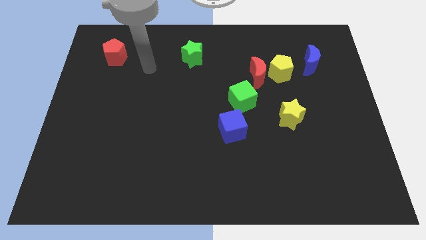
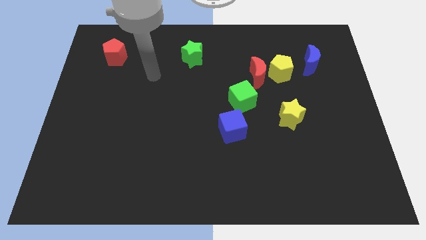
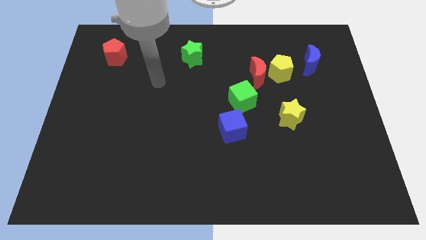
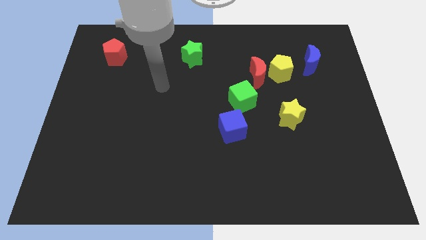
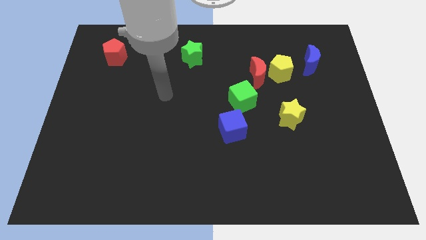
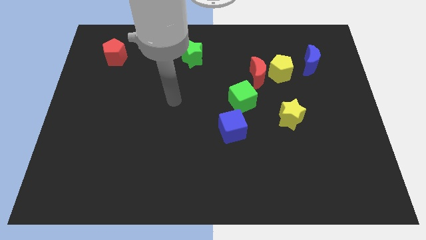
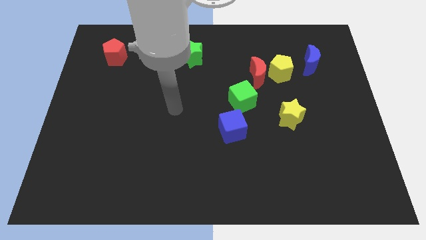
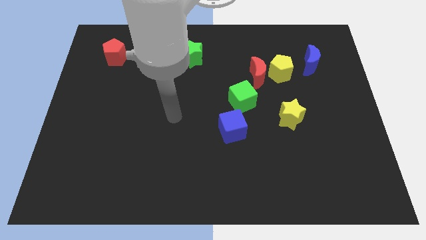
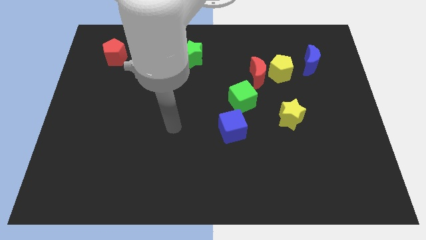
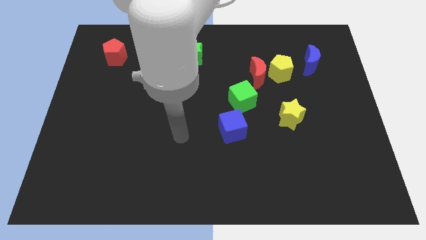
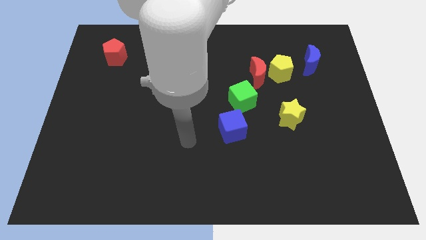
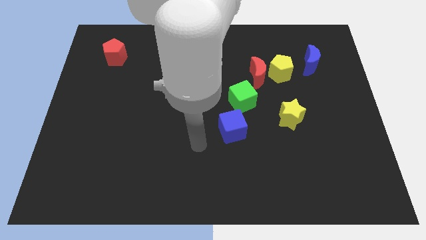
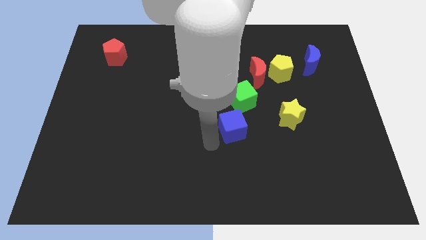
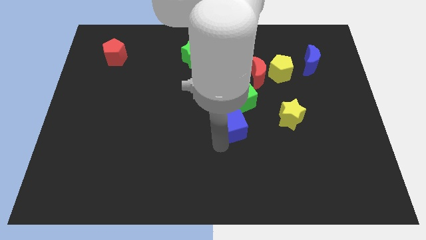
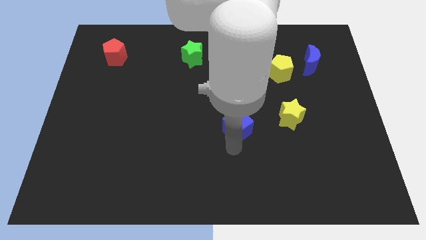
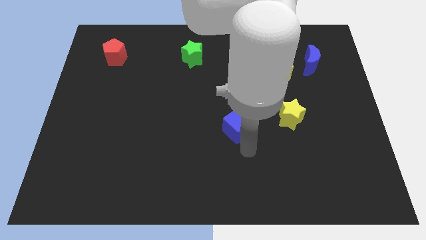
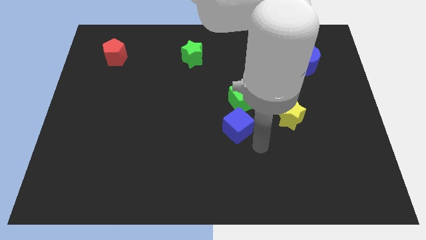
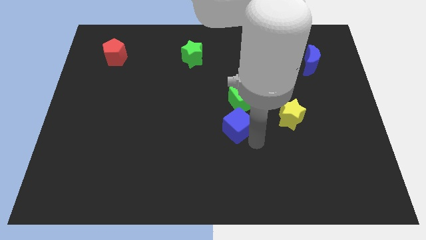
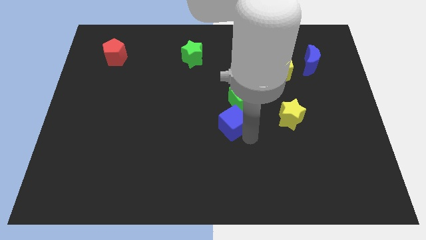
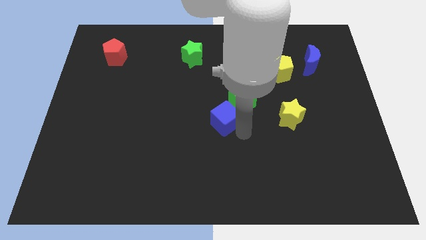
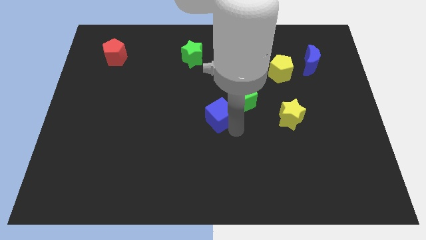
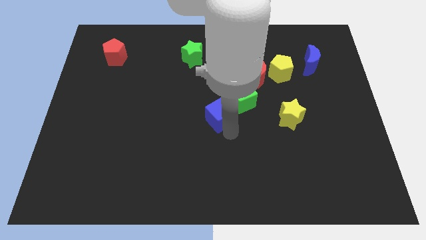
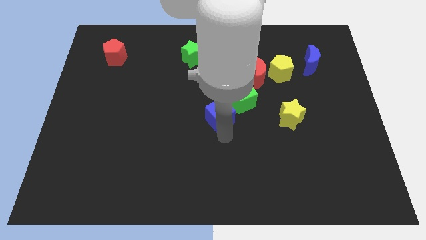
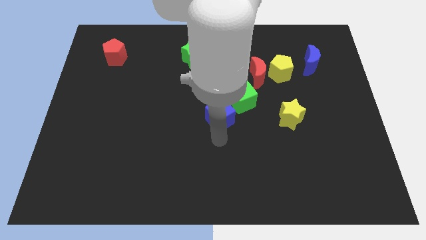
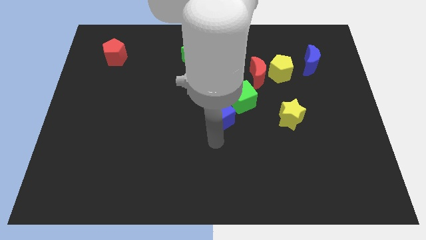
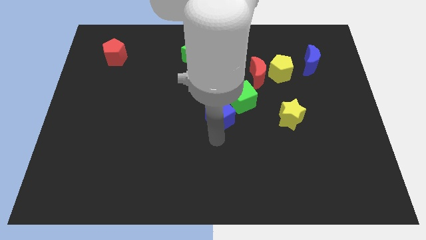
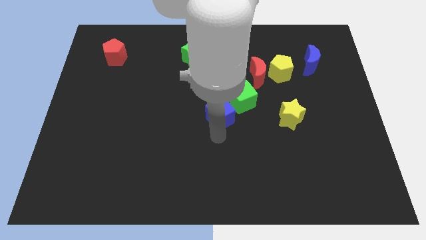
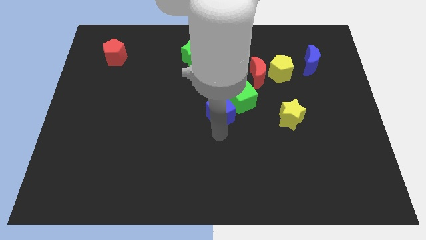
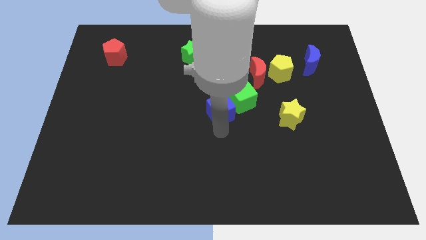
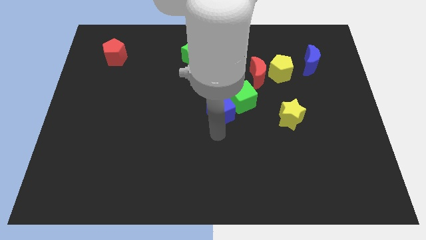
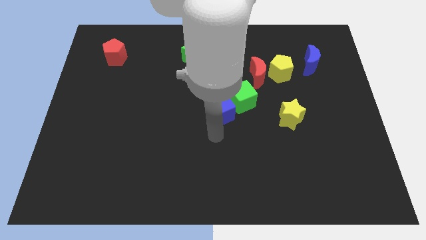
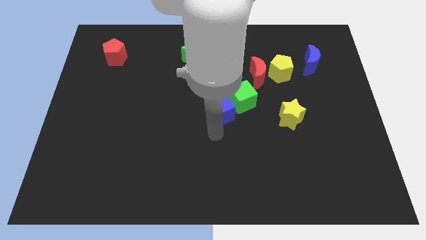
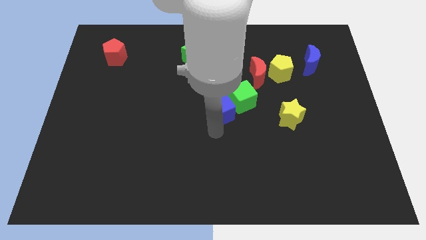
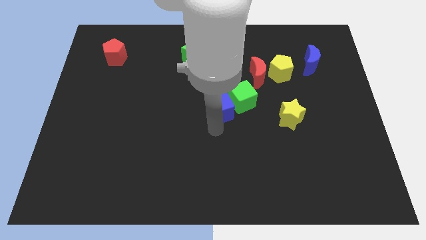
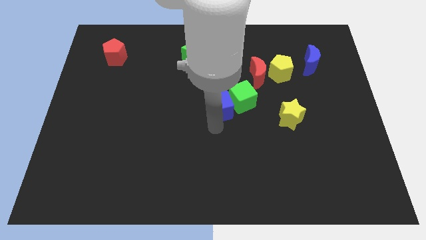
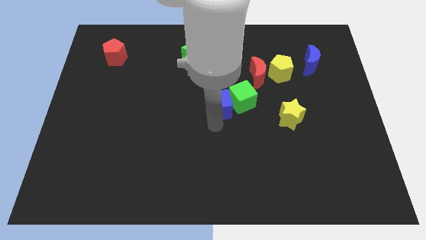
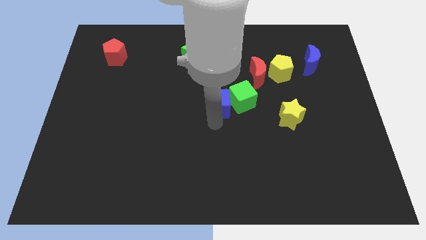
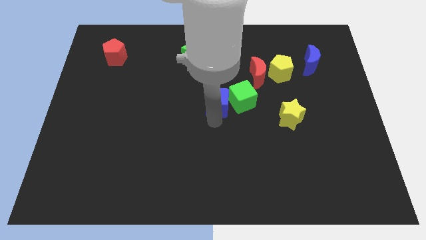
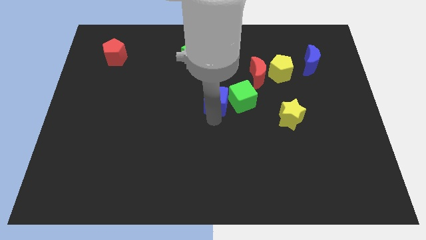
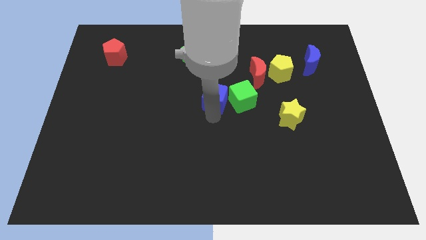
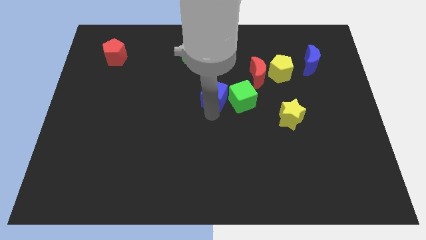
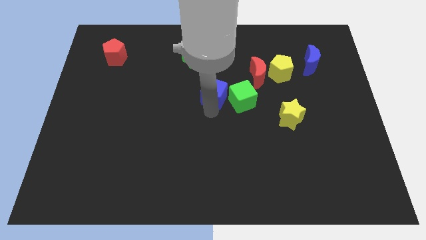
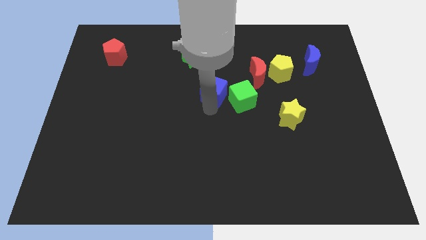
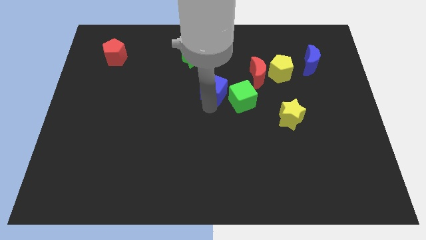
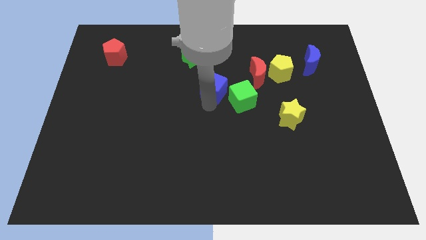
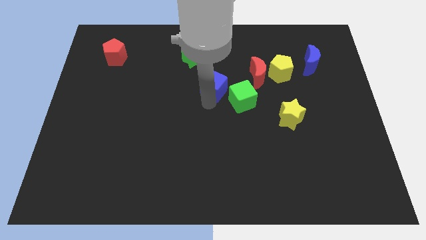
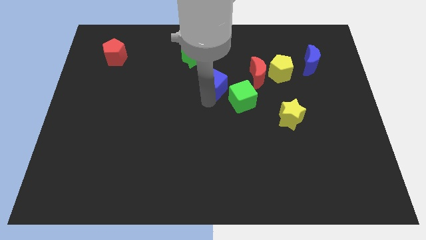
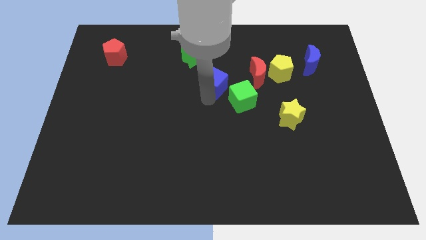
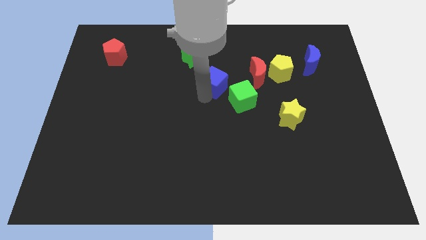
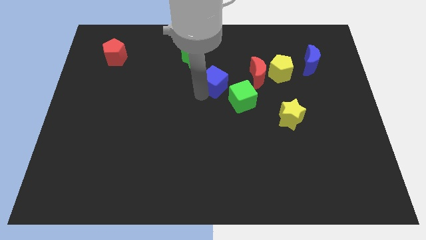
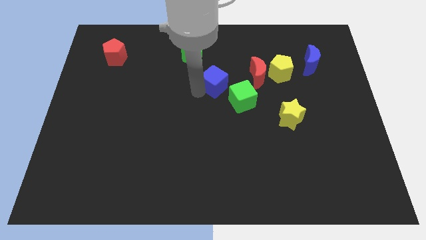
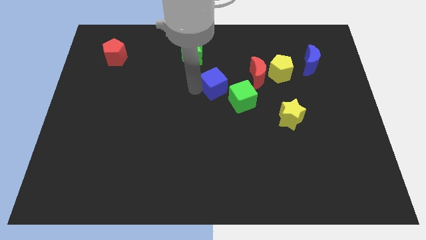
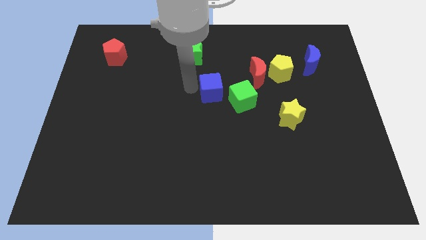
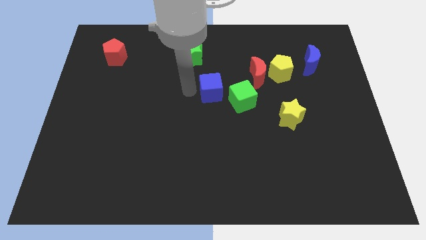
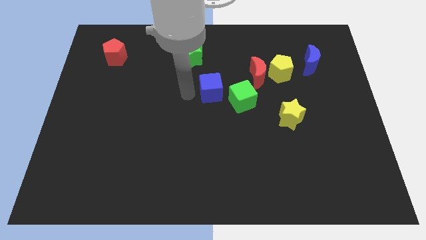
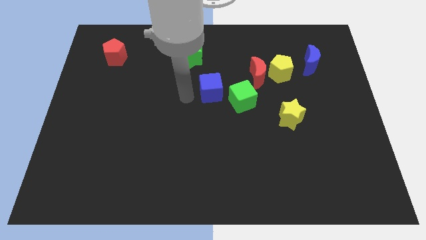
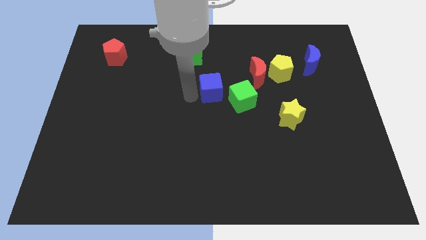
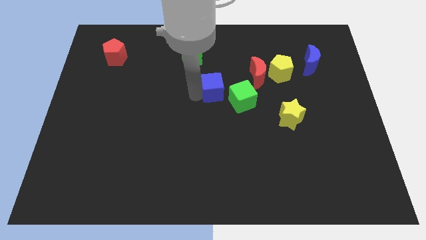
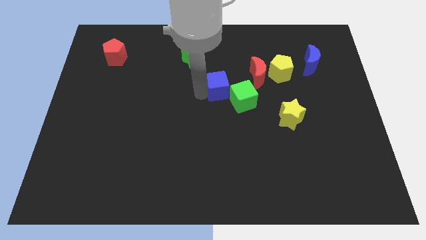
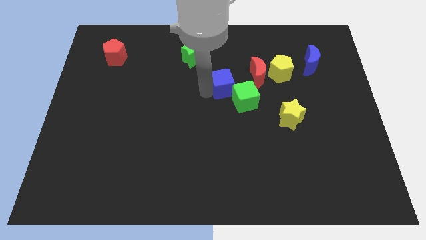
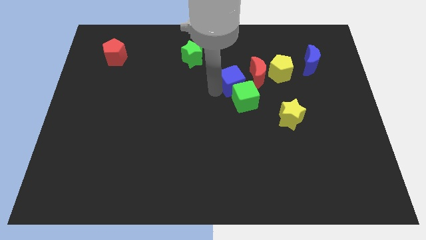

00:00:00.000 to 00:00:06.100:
move the blue cube above the green cube

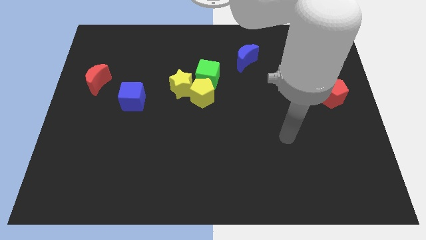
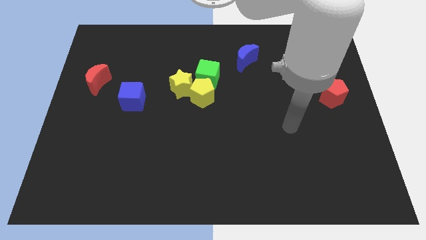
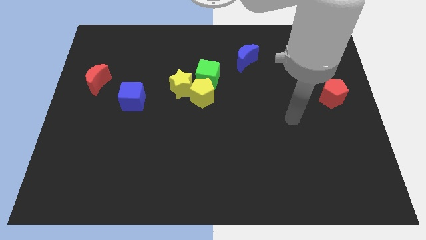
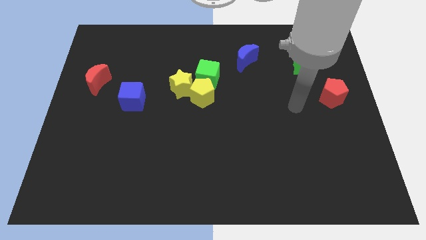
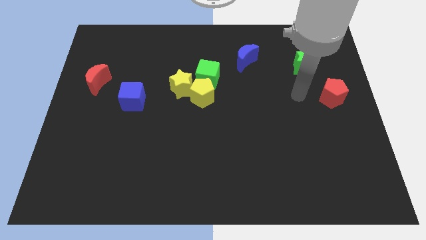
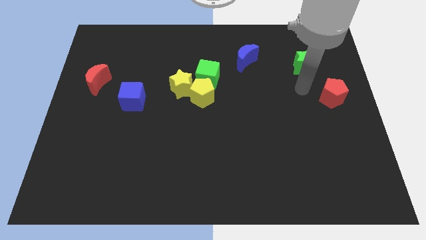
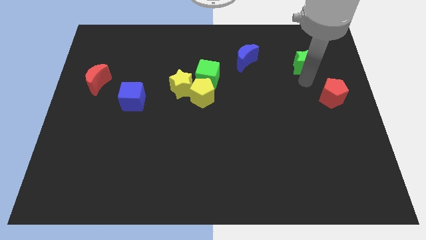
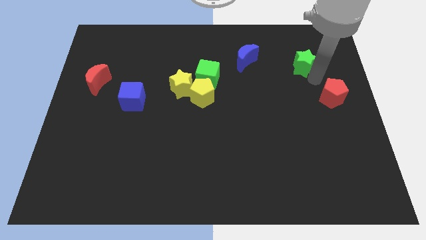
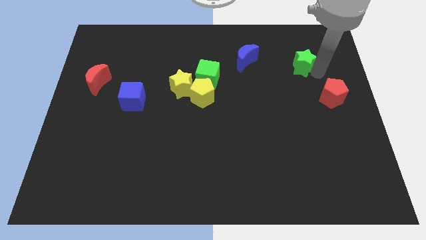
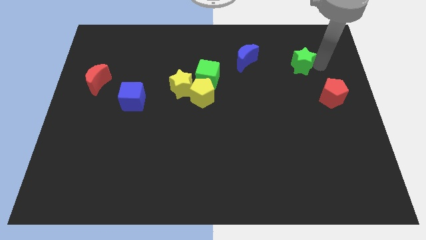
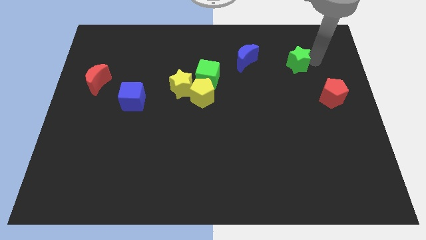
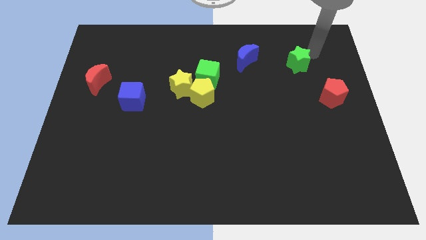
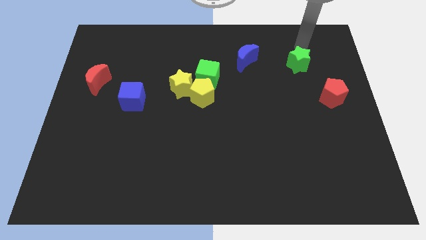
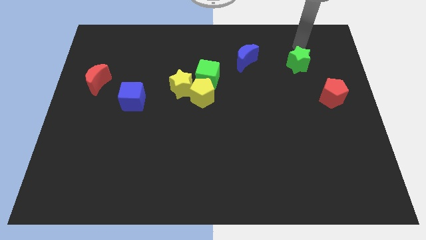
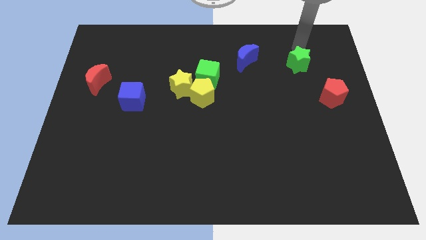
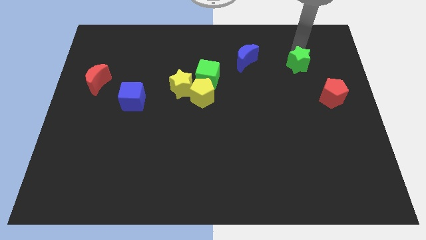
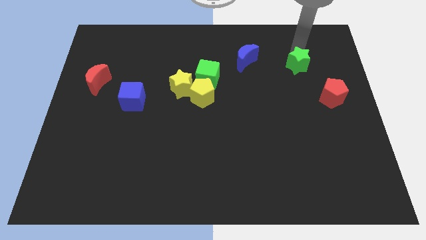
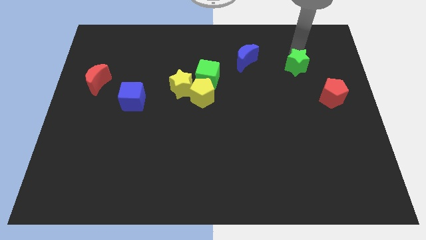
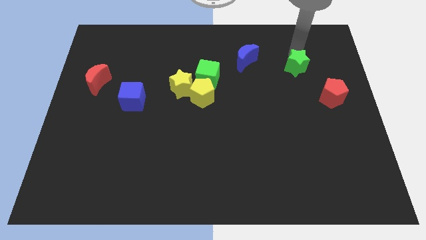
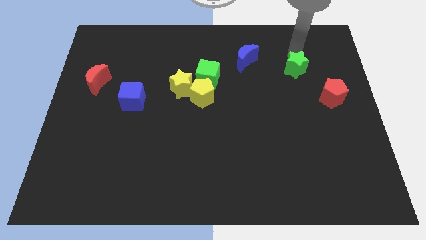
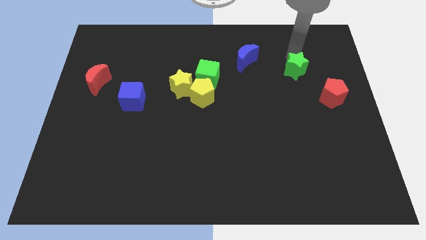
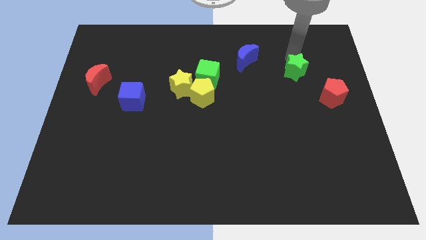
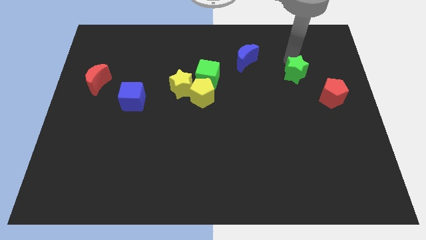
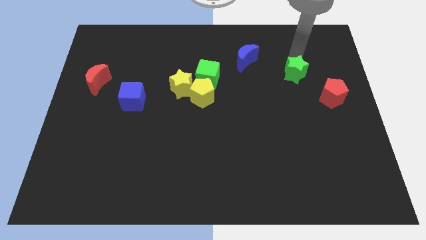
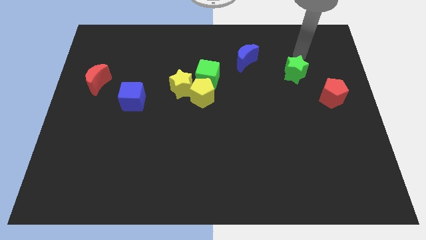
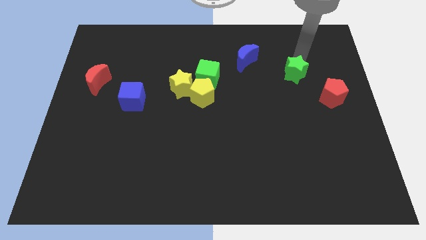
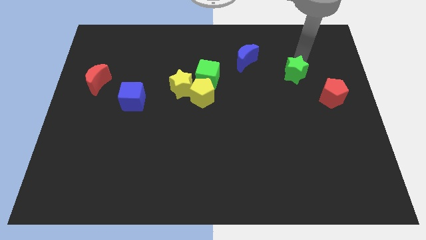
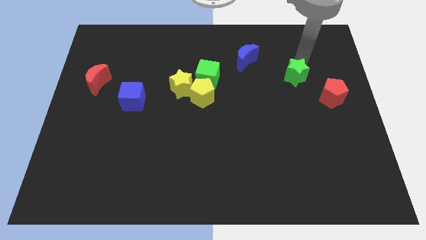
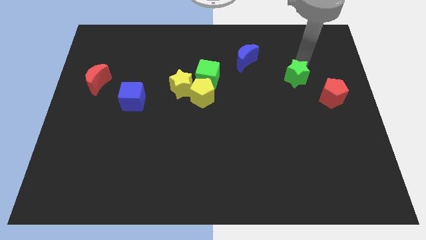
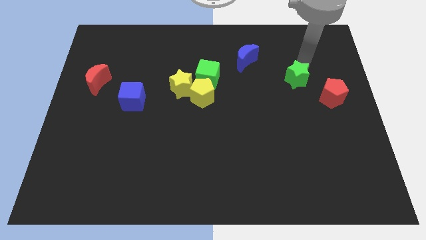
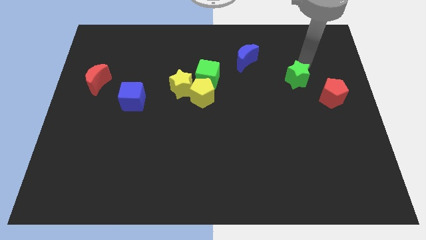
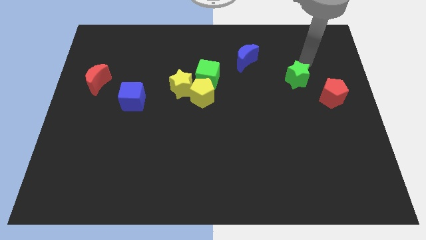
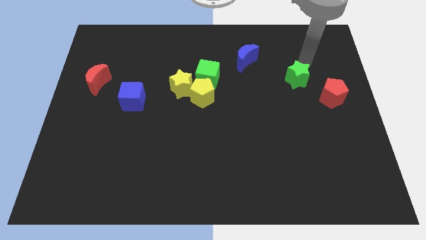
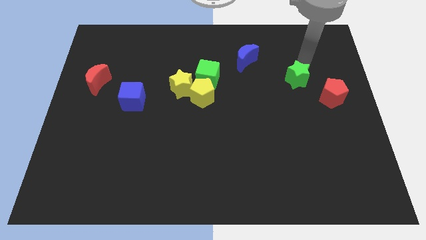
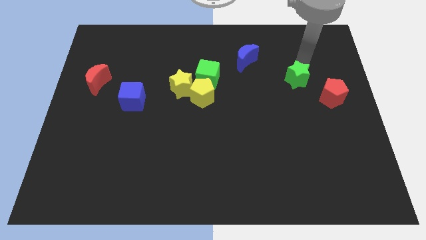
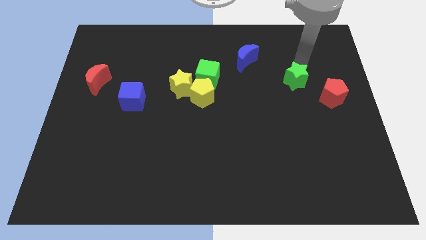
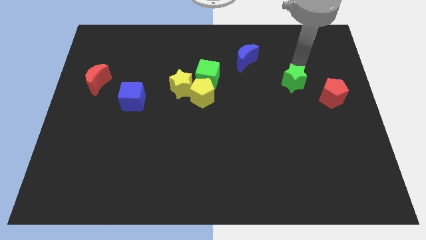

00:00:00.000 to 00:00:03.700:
put the green star to the left of the red pentagon
